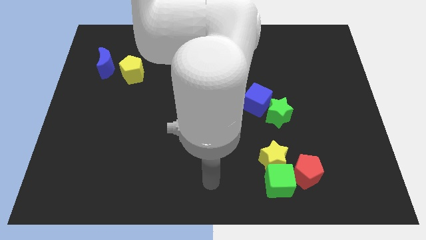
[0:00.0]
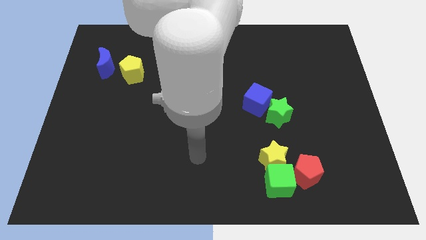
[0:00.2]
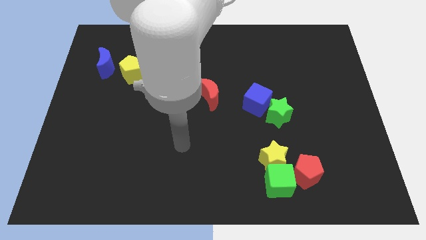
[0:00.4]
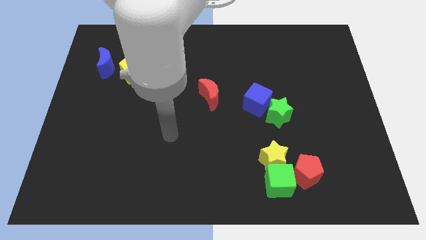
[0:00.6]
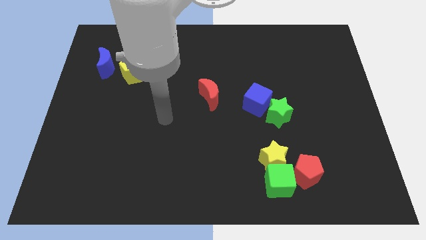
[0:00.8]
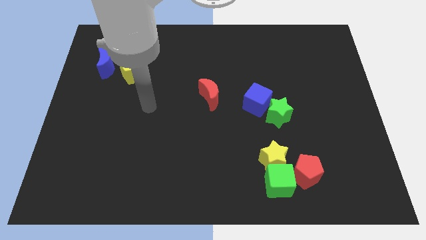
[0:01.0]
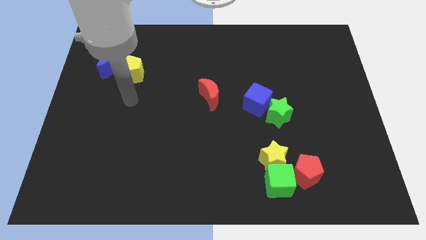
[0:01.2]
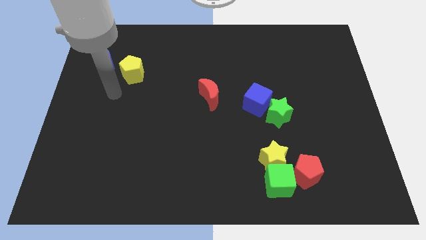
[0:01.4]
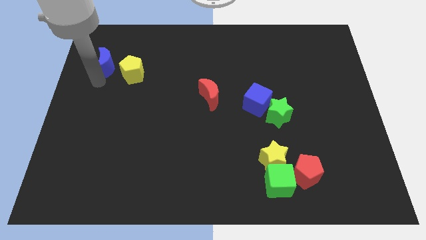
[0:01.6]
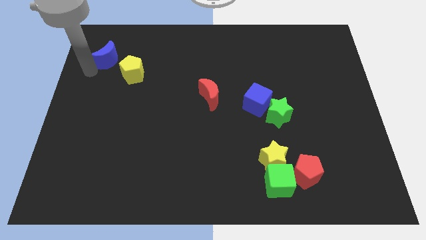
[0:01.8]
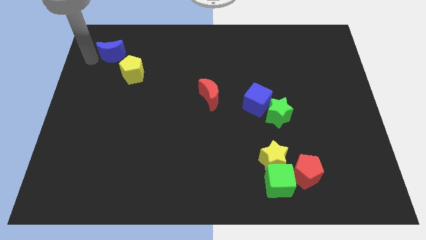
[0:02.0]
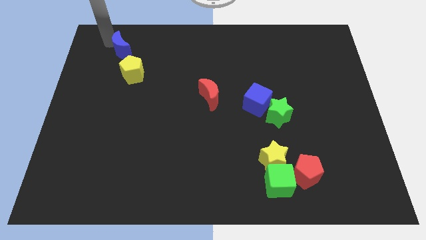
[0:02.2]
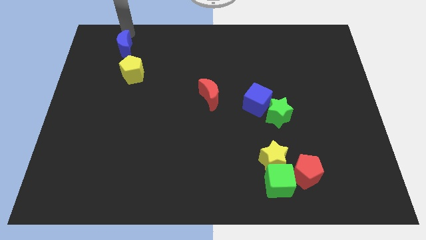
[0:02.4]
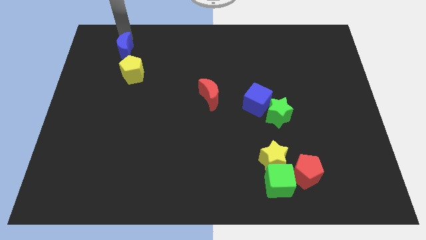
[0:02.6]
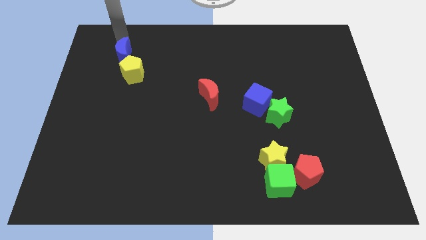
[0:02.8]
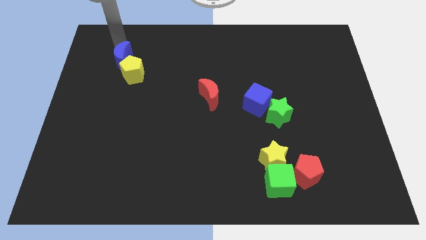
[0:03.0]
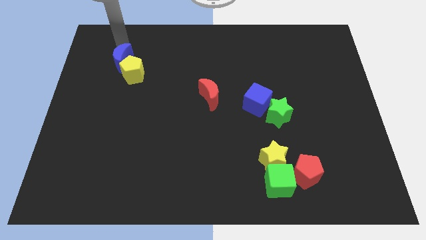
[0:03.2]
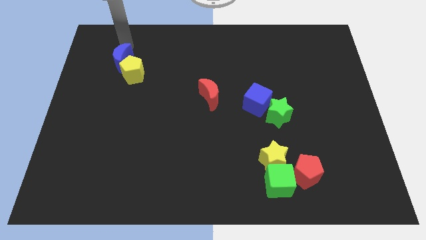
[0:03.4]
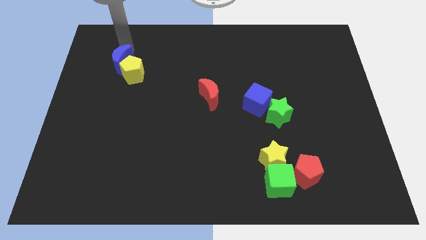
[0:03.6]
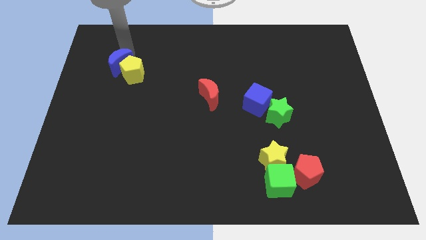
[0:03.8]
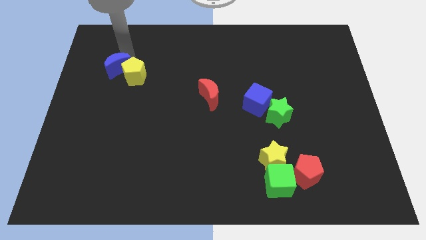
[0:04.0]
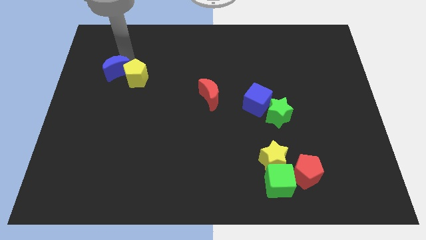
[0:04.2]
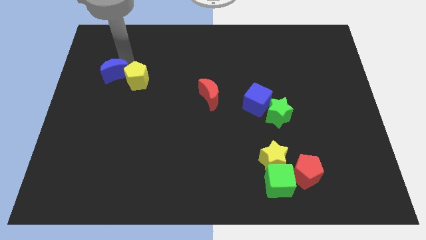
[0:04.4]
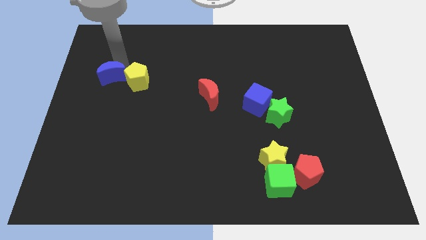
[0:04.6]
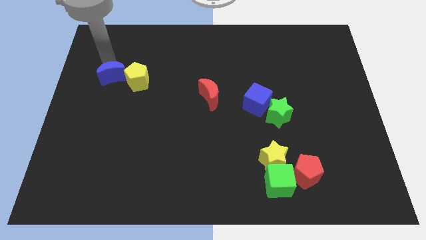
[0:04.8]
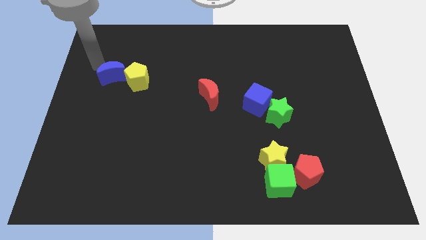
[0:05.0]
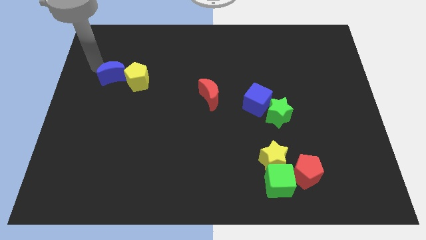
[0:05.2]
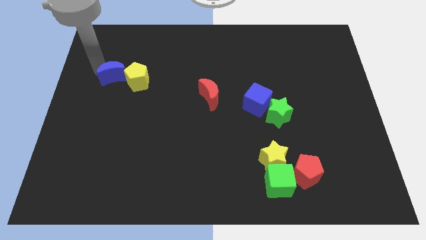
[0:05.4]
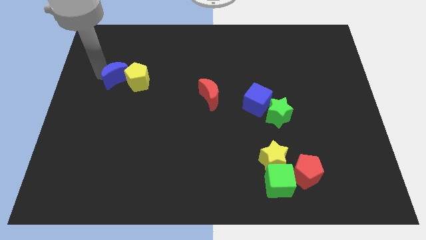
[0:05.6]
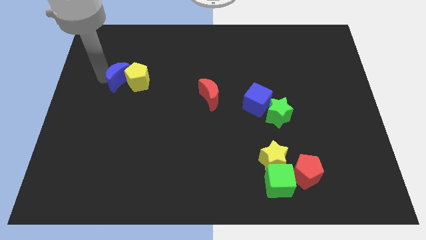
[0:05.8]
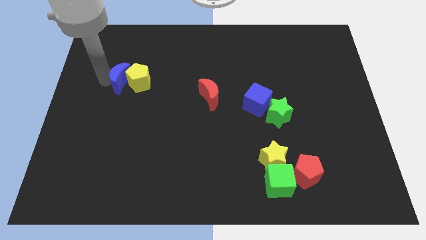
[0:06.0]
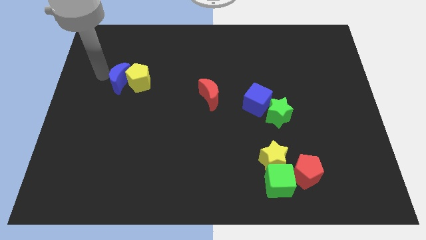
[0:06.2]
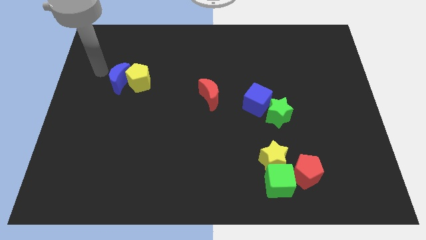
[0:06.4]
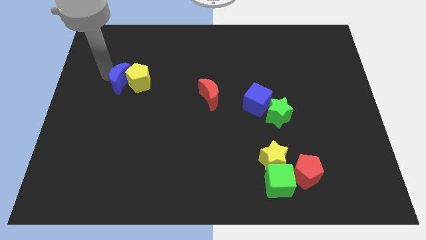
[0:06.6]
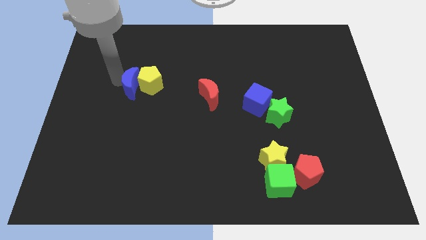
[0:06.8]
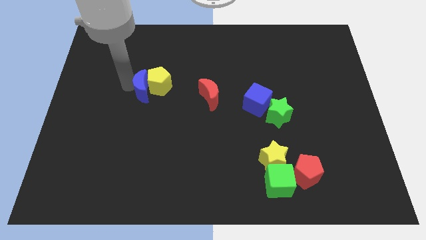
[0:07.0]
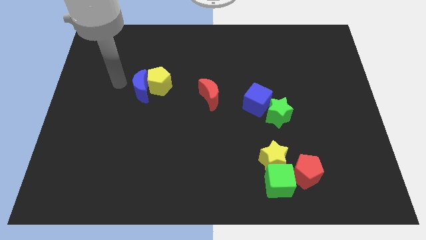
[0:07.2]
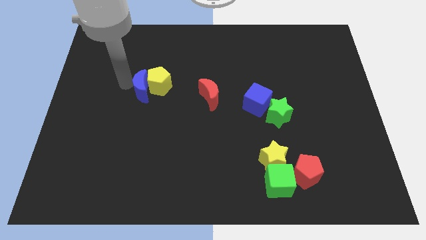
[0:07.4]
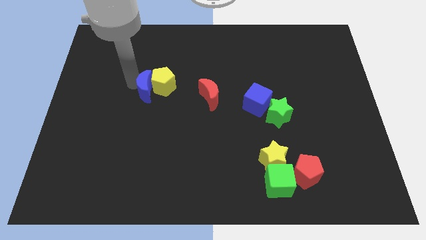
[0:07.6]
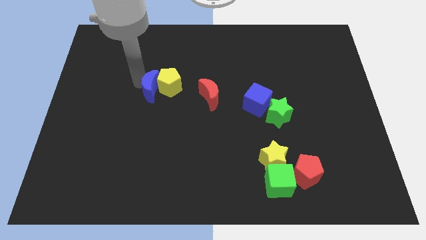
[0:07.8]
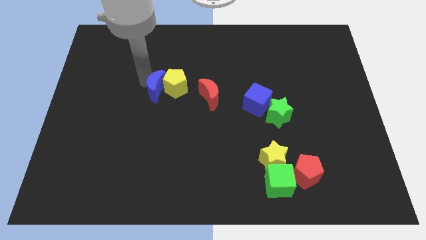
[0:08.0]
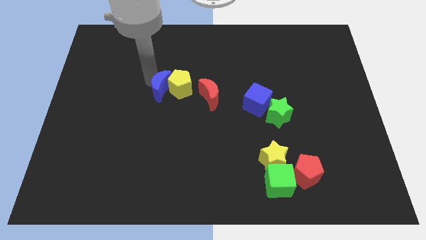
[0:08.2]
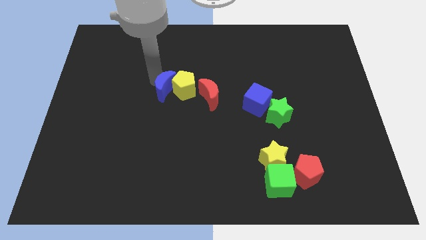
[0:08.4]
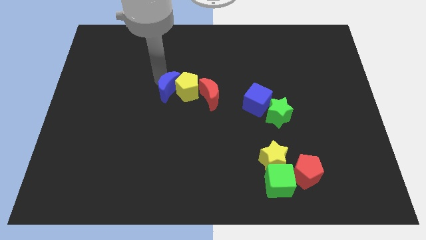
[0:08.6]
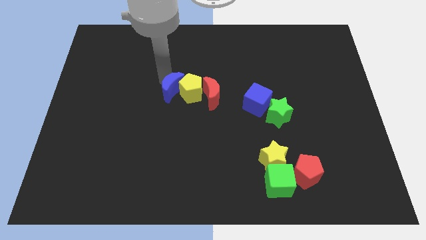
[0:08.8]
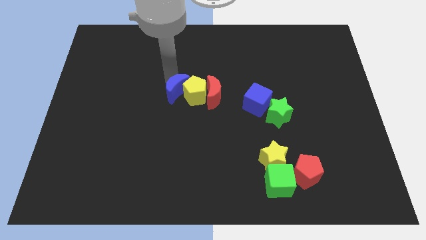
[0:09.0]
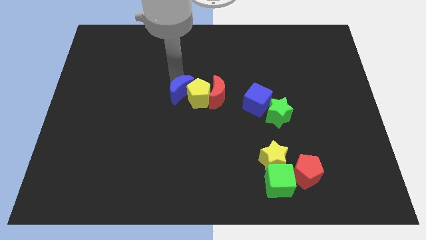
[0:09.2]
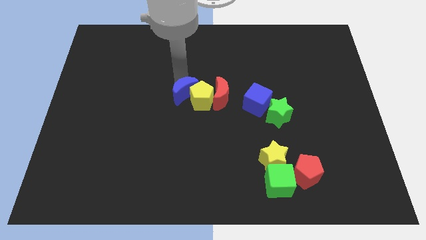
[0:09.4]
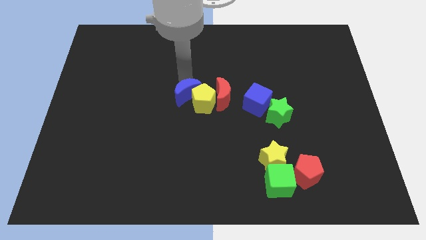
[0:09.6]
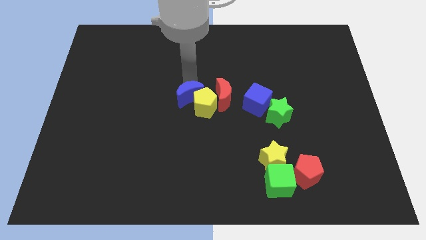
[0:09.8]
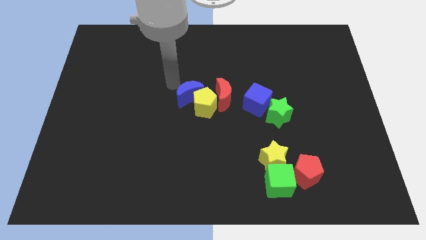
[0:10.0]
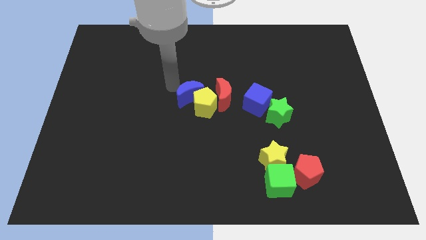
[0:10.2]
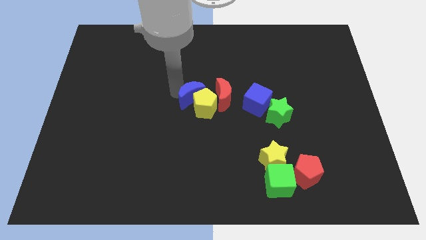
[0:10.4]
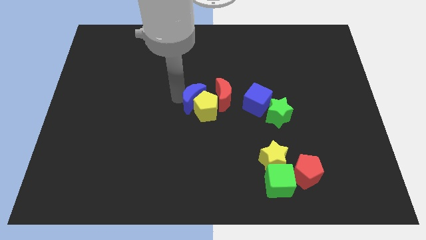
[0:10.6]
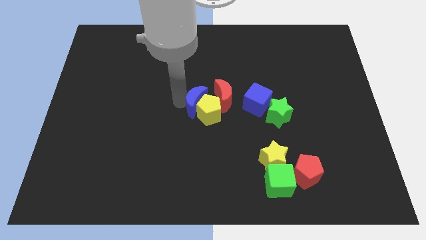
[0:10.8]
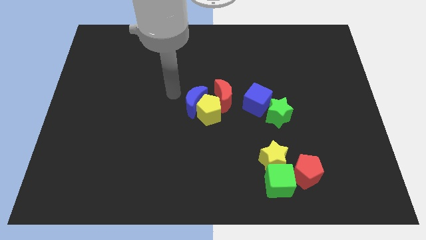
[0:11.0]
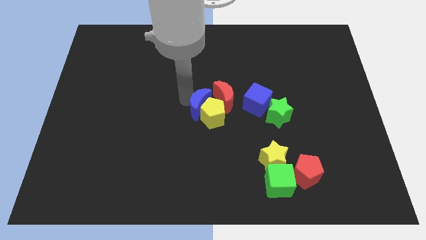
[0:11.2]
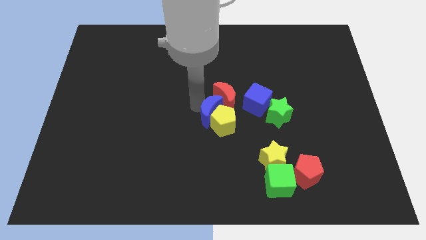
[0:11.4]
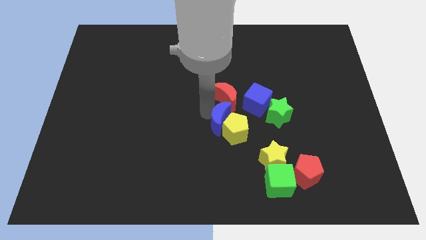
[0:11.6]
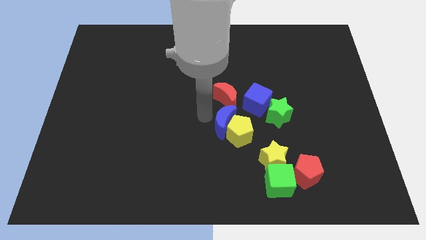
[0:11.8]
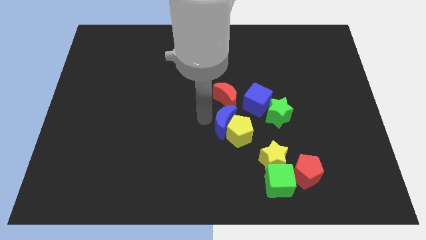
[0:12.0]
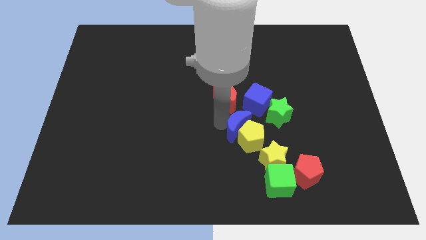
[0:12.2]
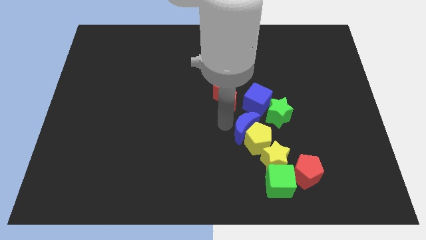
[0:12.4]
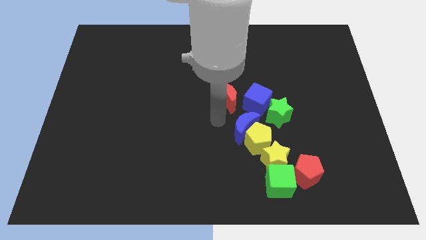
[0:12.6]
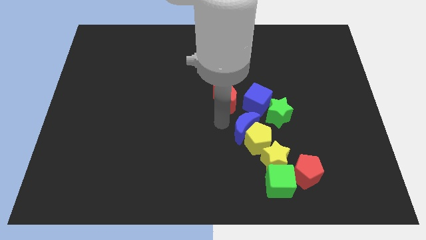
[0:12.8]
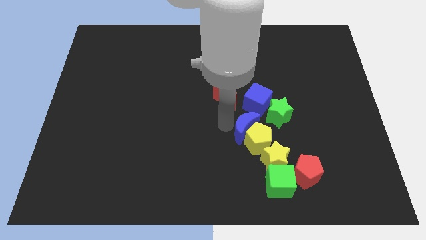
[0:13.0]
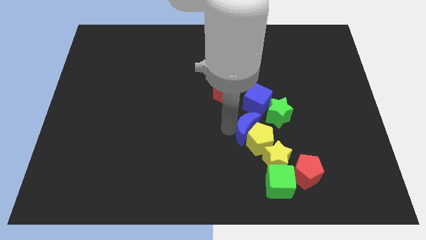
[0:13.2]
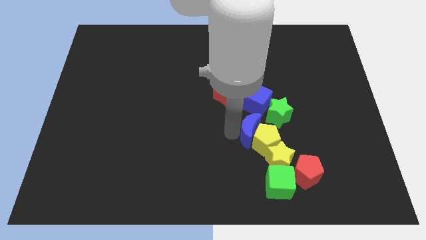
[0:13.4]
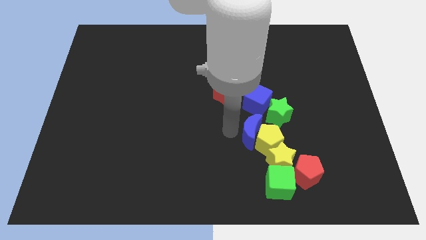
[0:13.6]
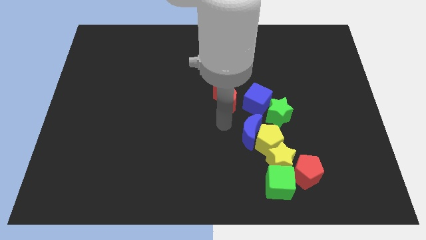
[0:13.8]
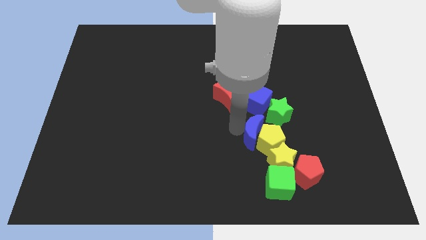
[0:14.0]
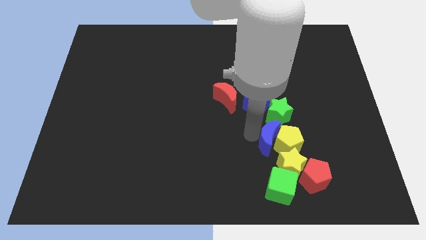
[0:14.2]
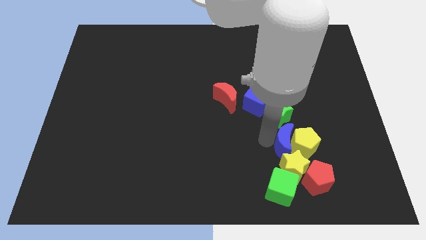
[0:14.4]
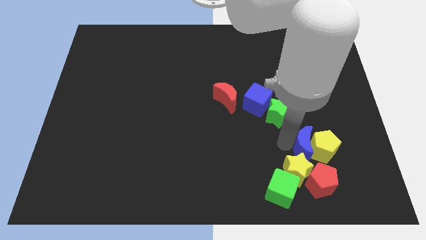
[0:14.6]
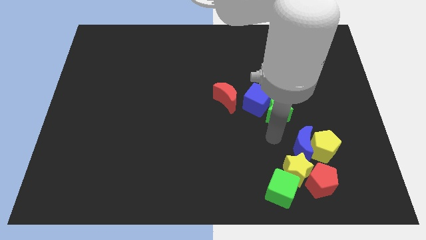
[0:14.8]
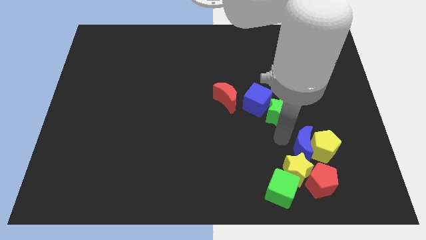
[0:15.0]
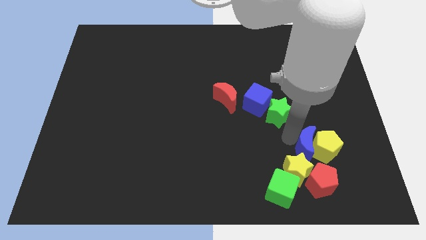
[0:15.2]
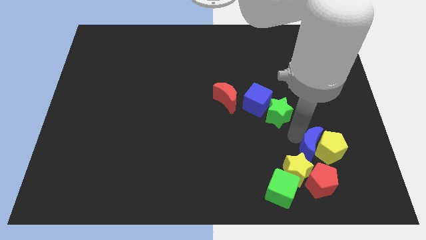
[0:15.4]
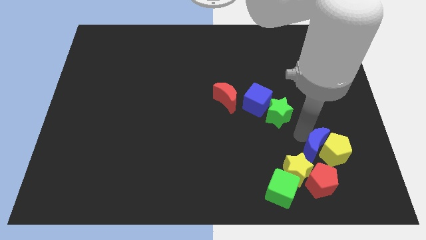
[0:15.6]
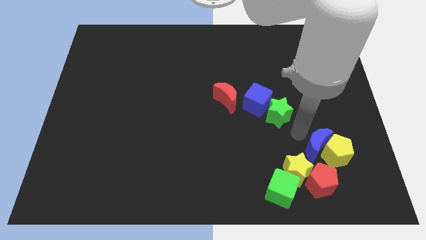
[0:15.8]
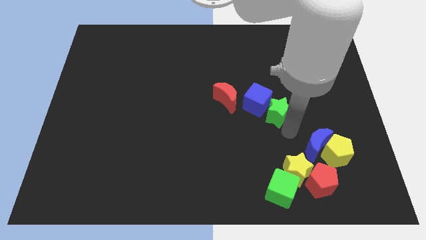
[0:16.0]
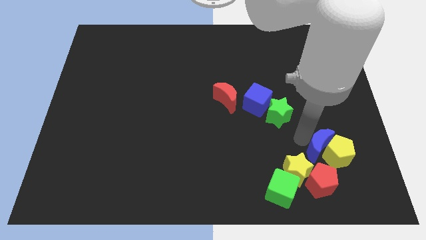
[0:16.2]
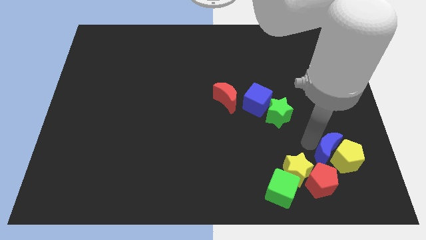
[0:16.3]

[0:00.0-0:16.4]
push the blue moon to the top right side of the red pentagon
